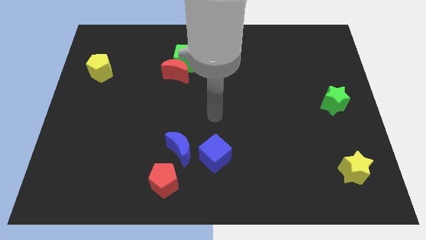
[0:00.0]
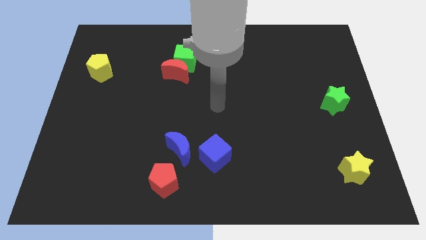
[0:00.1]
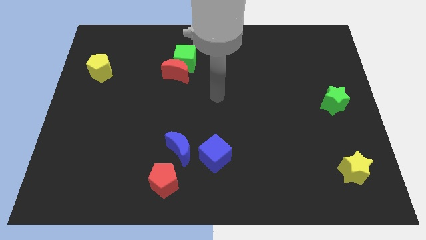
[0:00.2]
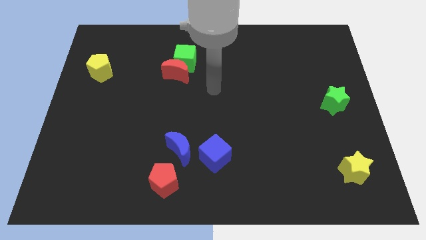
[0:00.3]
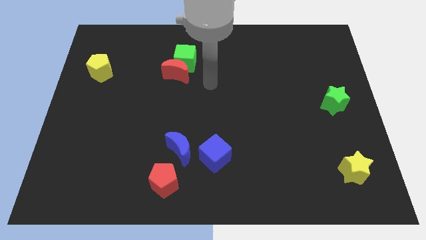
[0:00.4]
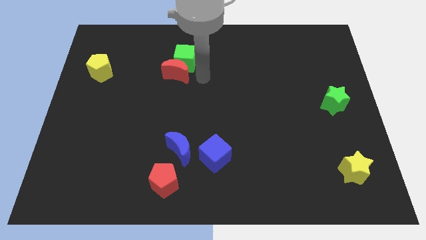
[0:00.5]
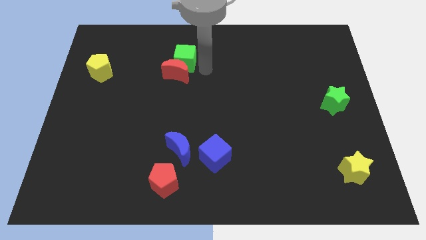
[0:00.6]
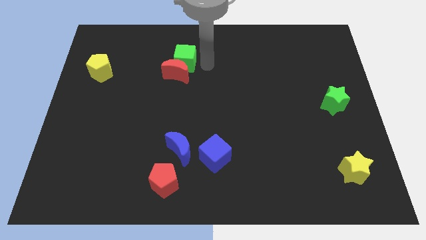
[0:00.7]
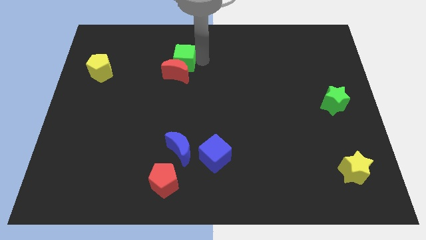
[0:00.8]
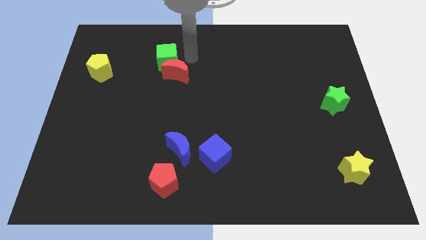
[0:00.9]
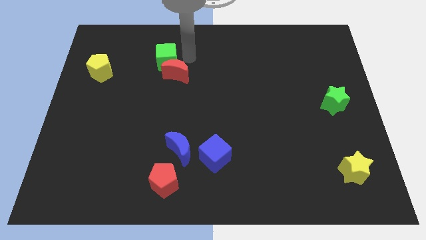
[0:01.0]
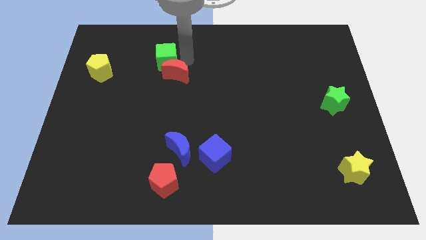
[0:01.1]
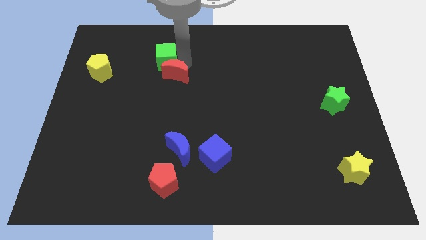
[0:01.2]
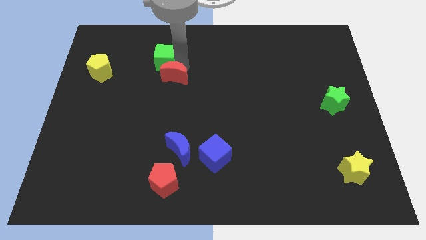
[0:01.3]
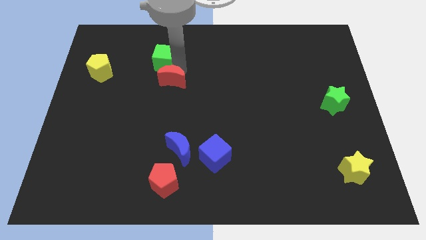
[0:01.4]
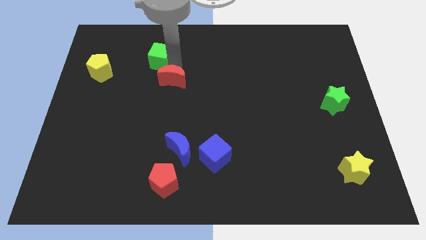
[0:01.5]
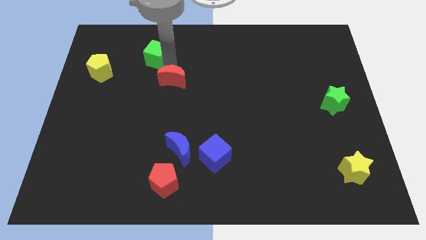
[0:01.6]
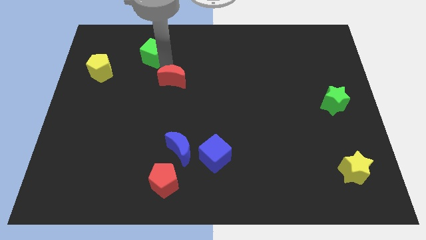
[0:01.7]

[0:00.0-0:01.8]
separate the red moon from the green cube

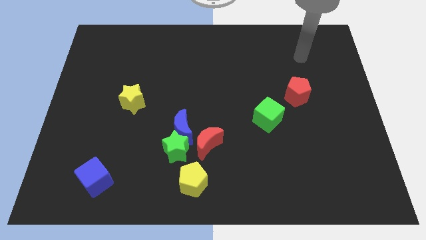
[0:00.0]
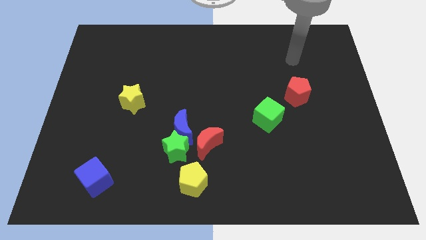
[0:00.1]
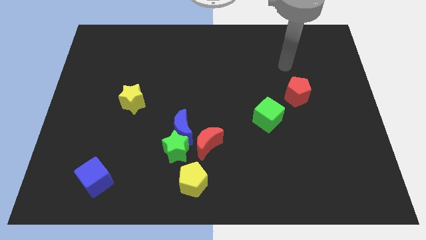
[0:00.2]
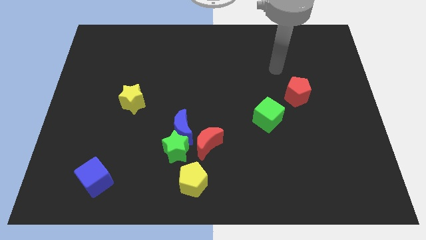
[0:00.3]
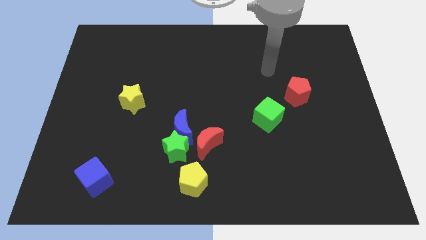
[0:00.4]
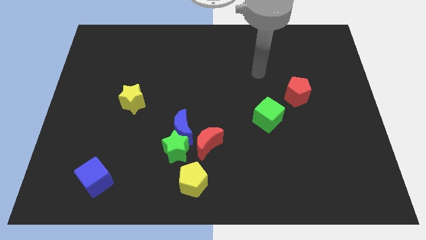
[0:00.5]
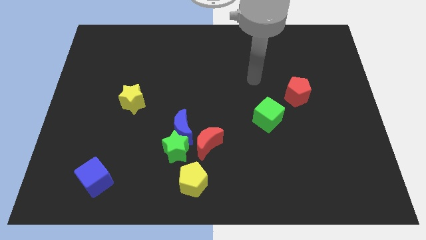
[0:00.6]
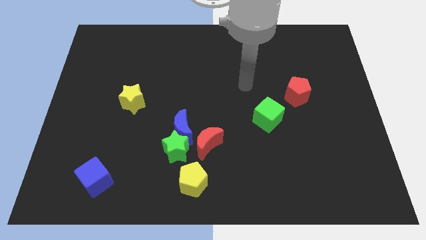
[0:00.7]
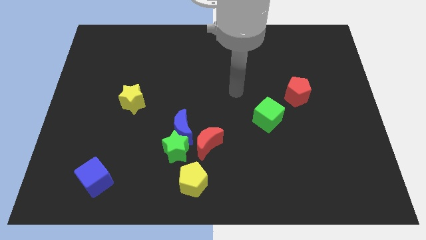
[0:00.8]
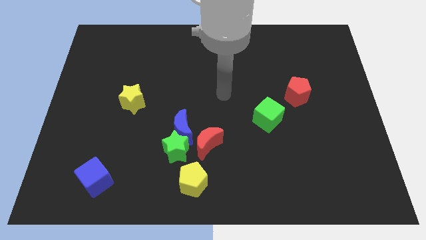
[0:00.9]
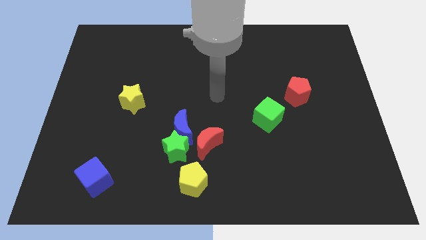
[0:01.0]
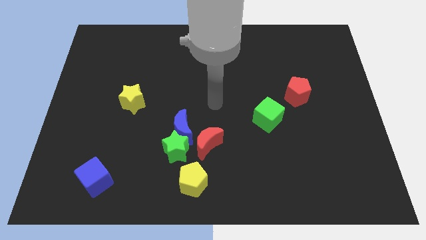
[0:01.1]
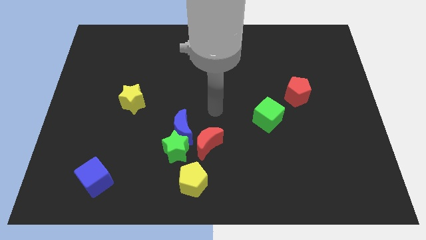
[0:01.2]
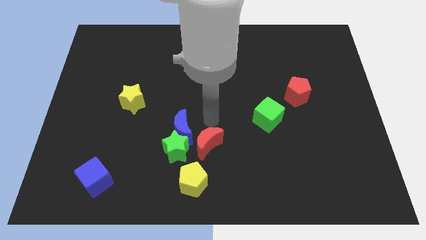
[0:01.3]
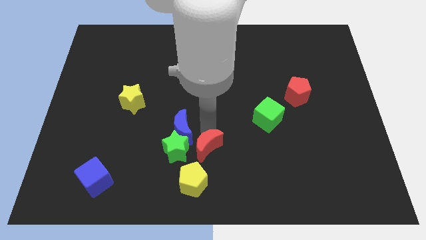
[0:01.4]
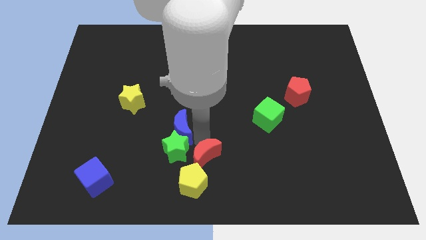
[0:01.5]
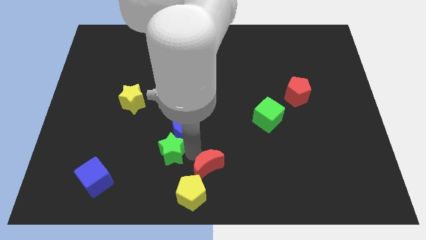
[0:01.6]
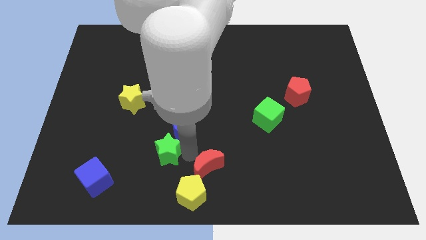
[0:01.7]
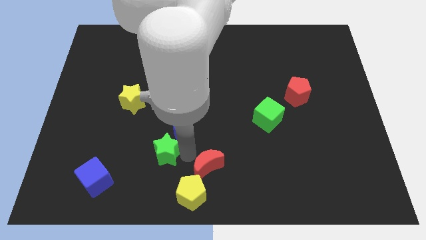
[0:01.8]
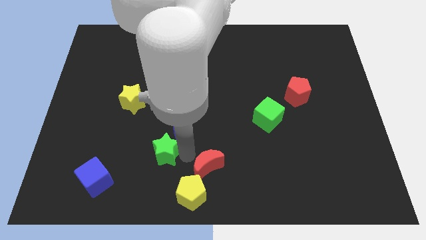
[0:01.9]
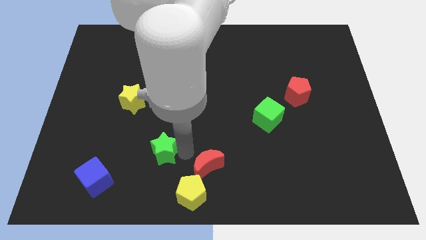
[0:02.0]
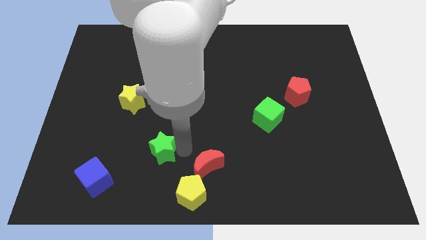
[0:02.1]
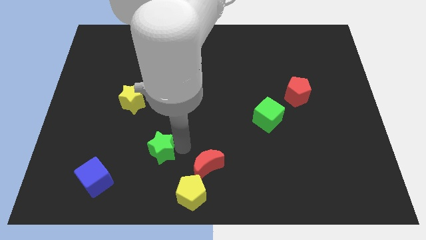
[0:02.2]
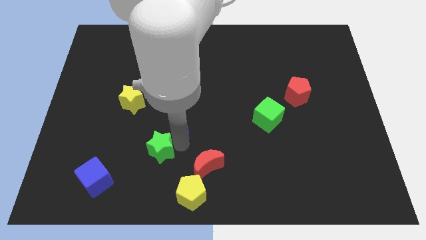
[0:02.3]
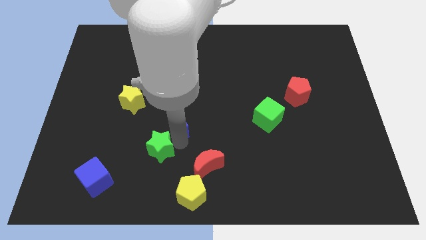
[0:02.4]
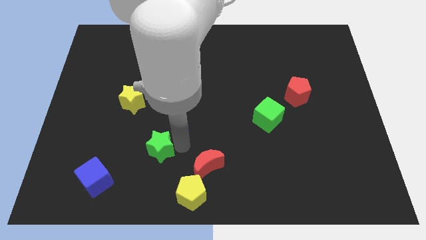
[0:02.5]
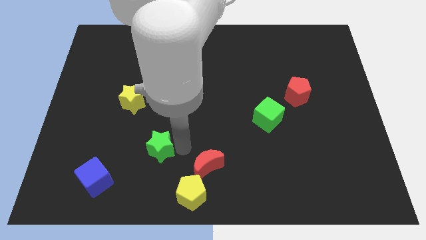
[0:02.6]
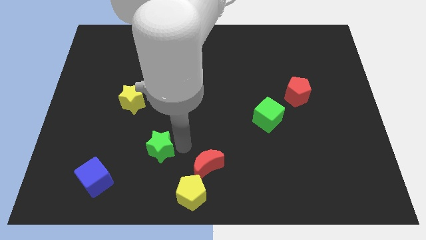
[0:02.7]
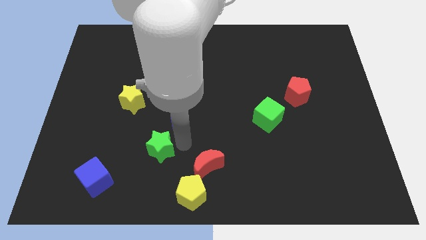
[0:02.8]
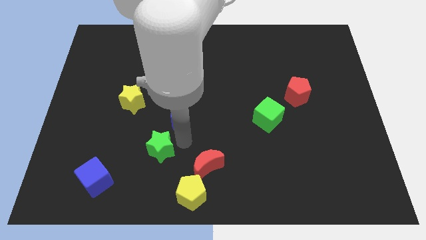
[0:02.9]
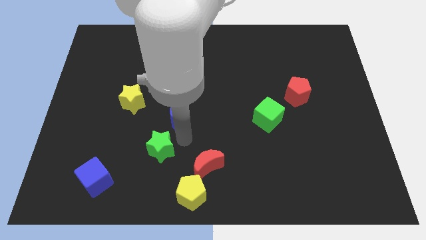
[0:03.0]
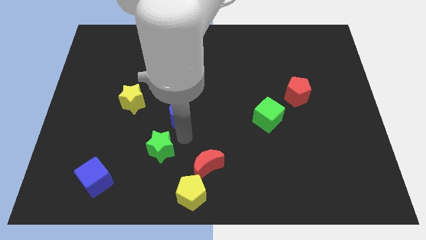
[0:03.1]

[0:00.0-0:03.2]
separate the blue moon from the green star and red moon

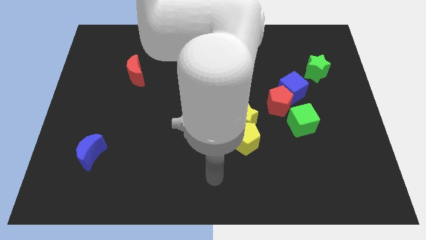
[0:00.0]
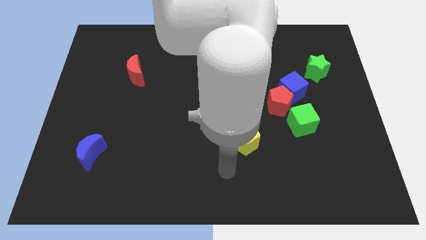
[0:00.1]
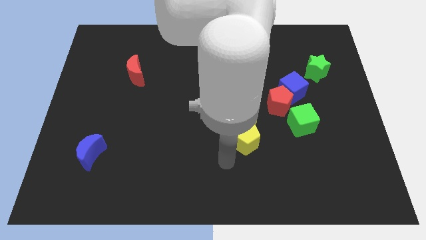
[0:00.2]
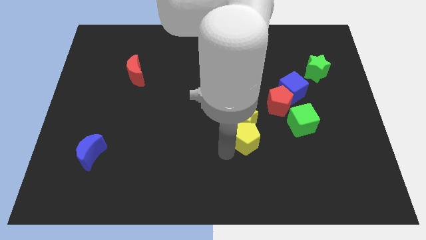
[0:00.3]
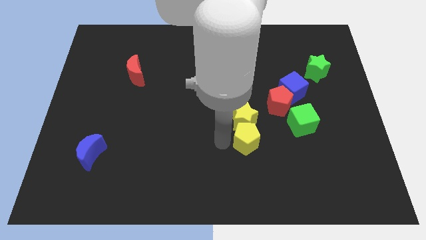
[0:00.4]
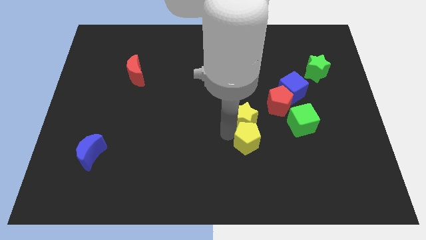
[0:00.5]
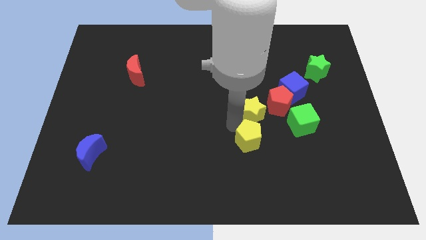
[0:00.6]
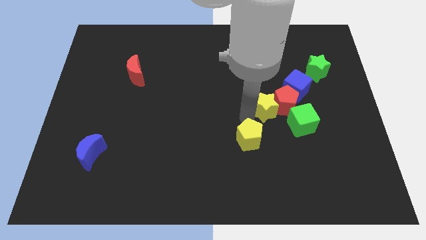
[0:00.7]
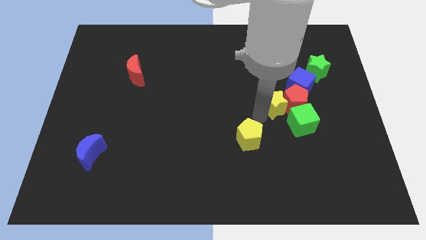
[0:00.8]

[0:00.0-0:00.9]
move the yellow pentagon away from the yellow star

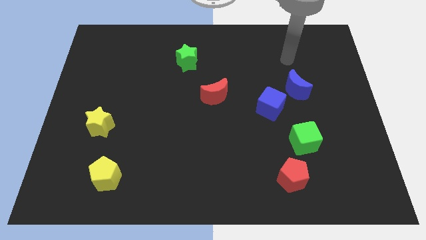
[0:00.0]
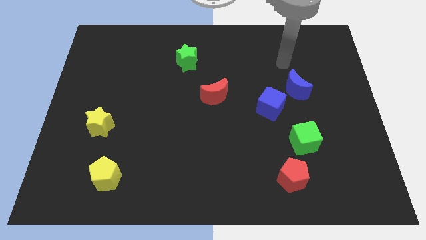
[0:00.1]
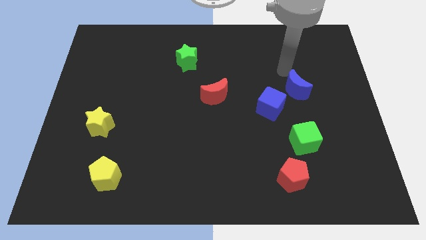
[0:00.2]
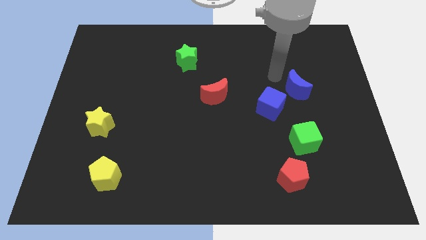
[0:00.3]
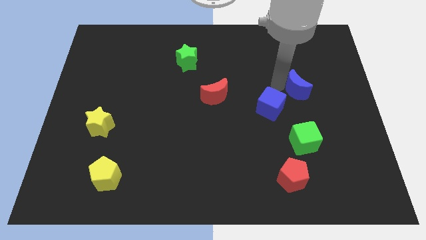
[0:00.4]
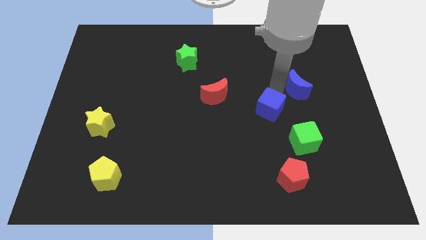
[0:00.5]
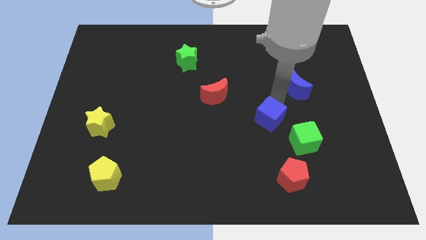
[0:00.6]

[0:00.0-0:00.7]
move the blue moon away from the blue cube

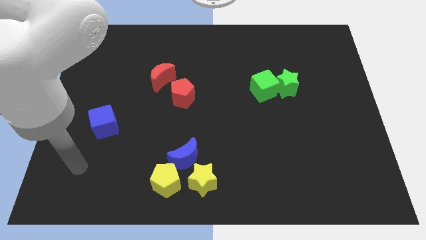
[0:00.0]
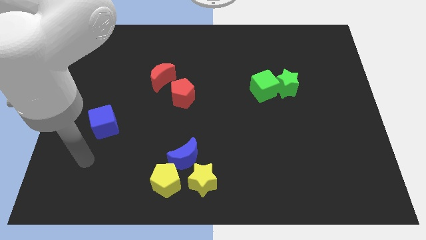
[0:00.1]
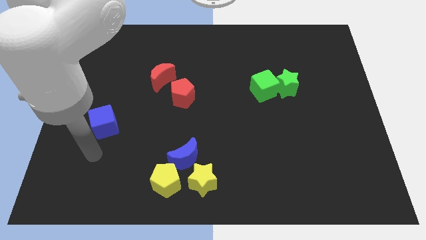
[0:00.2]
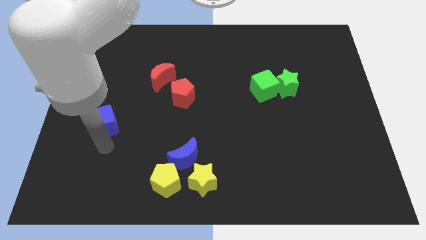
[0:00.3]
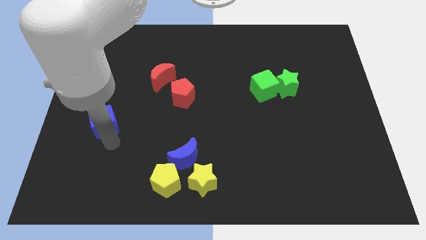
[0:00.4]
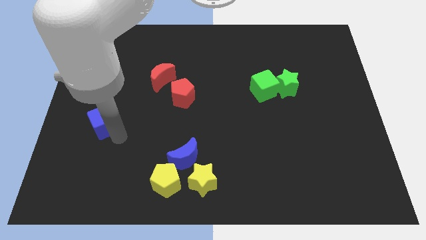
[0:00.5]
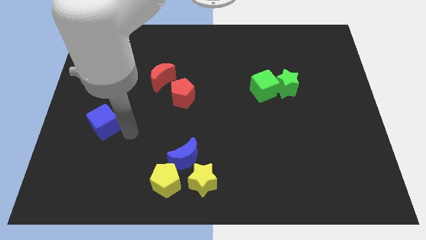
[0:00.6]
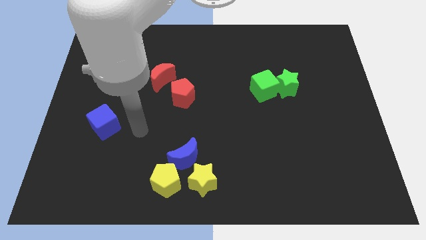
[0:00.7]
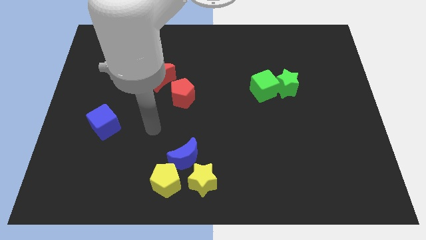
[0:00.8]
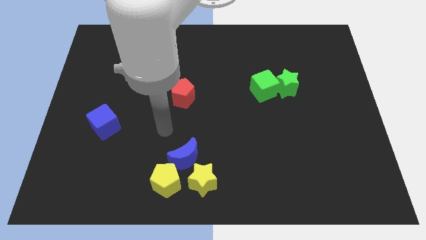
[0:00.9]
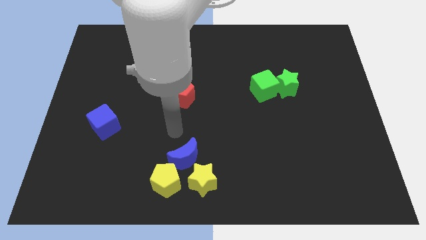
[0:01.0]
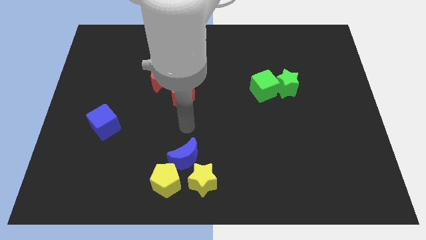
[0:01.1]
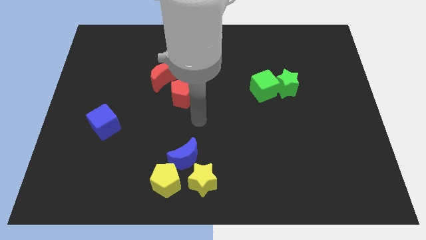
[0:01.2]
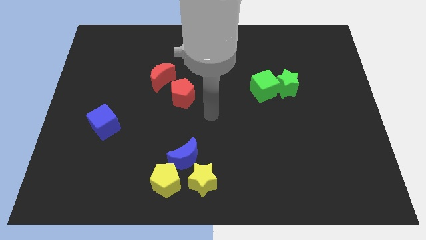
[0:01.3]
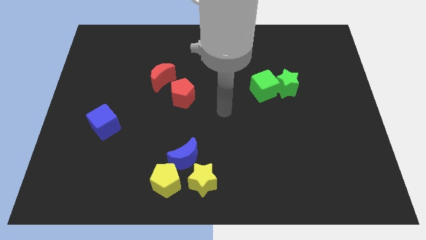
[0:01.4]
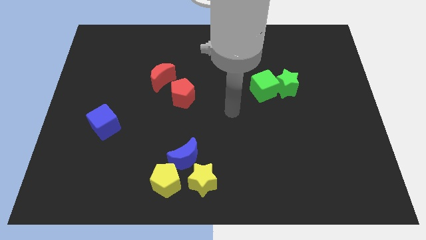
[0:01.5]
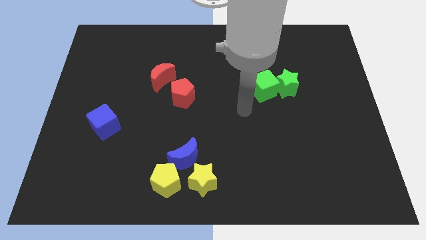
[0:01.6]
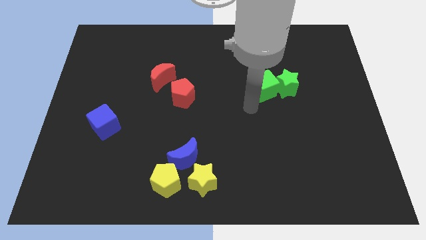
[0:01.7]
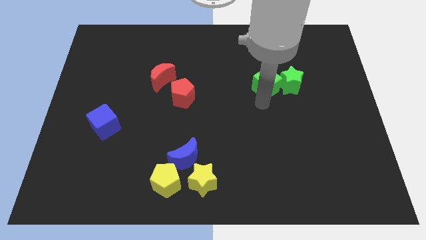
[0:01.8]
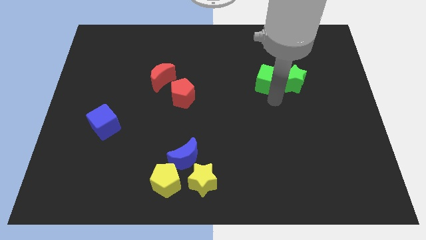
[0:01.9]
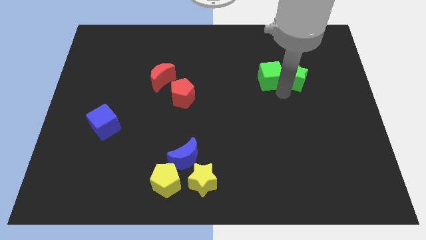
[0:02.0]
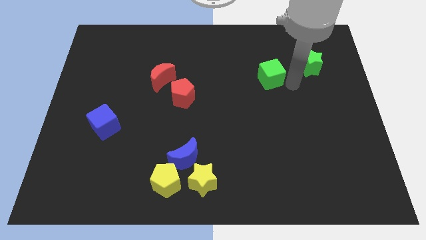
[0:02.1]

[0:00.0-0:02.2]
pull the green cube apart from the green star

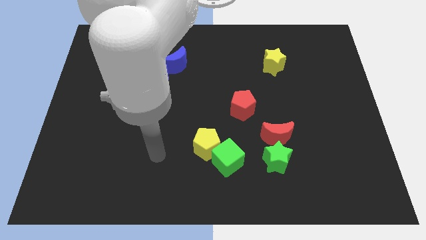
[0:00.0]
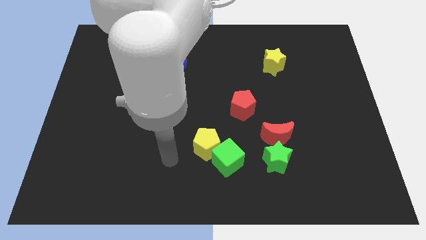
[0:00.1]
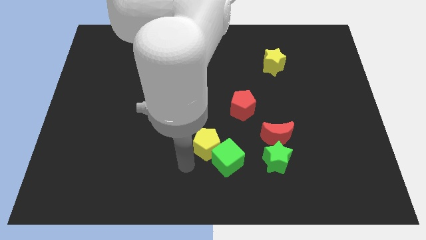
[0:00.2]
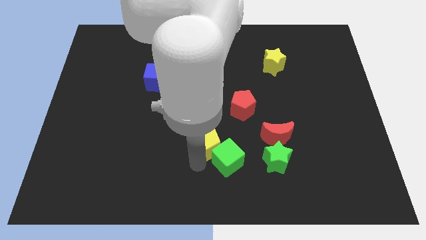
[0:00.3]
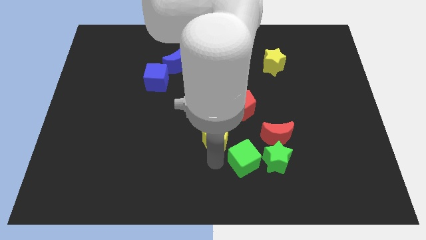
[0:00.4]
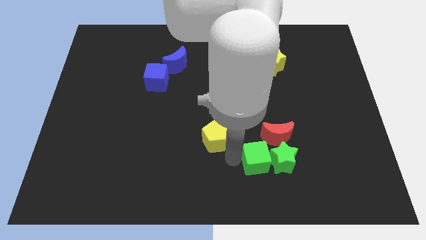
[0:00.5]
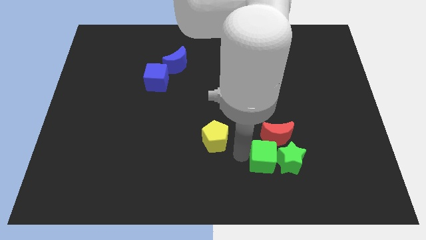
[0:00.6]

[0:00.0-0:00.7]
pull the yellow pentagon apart from the green cube
